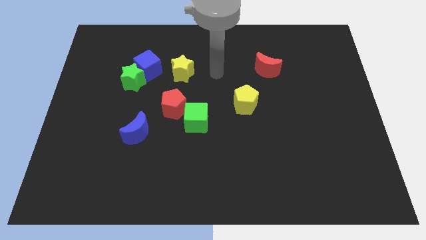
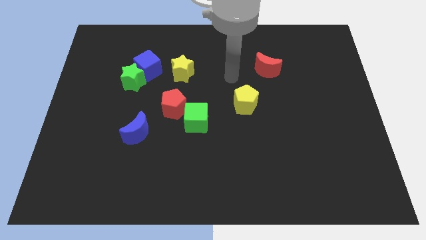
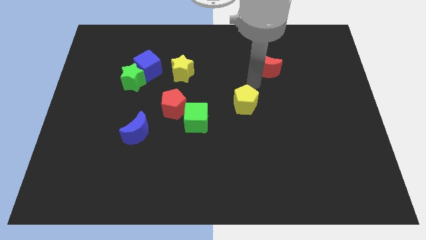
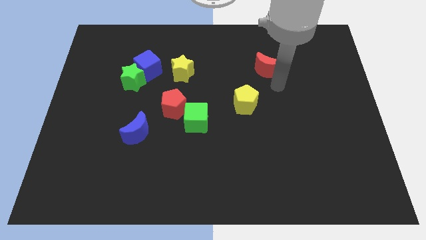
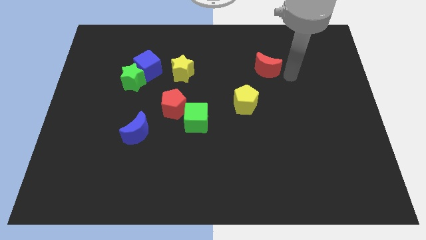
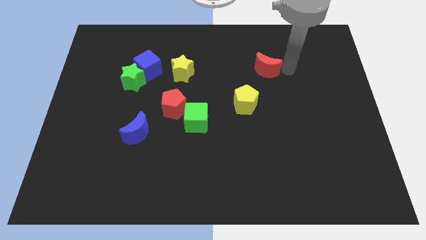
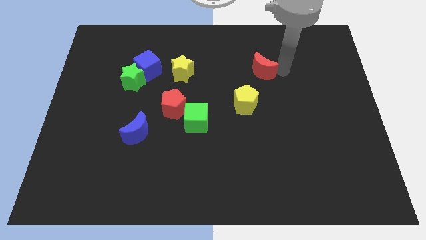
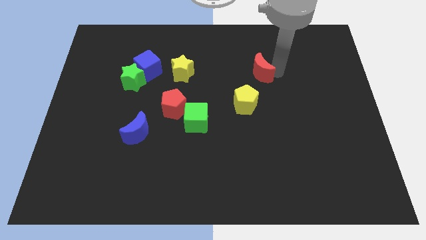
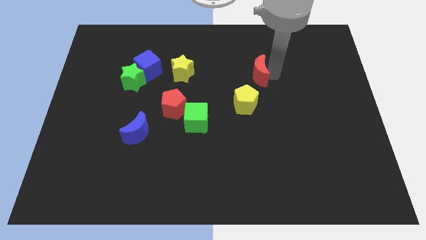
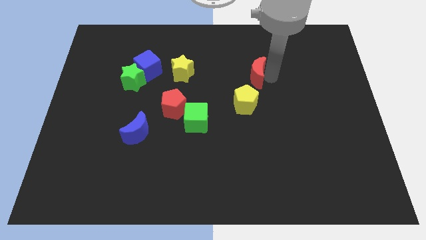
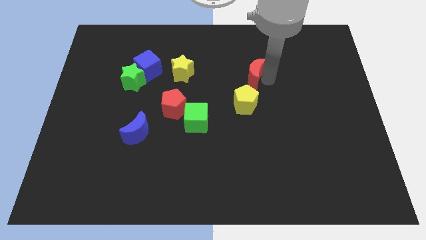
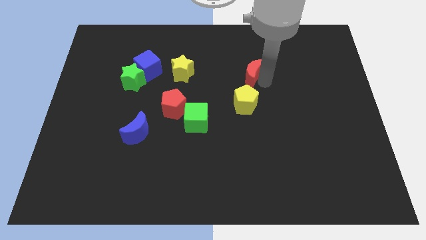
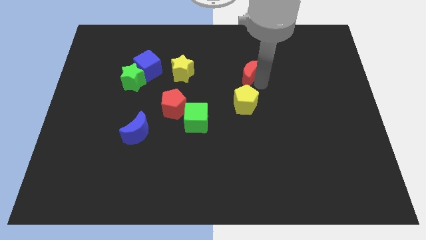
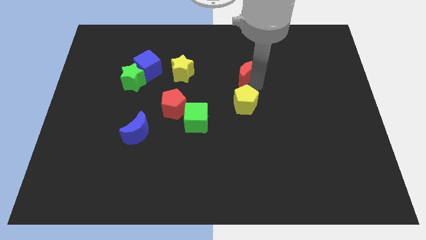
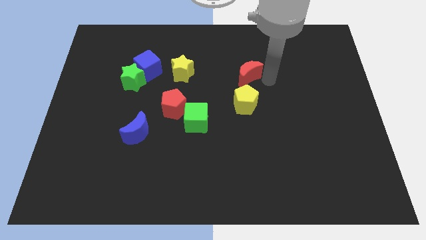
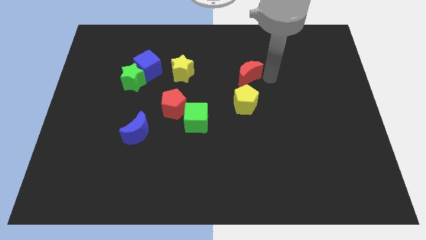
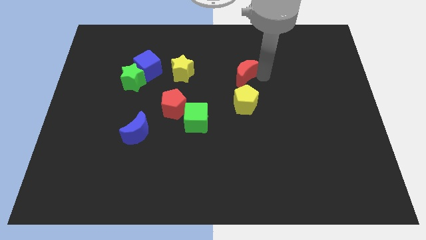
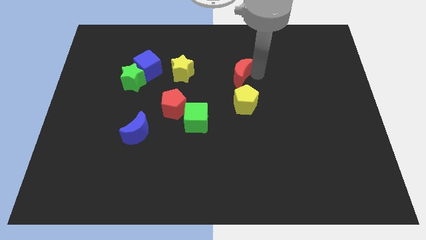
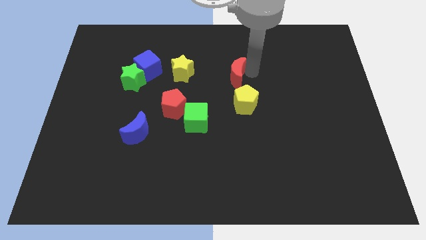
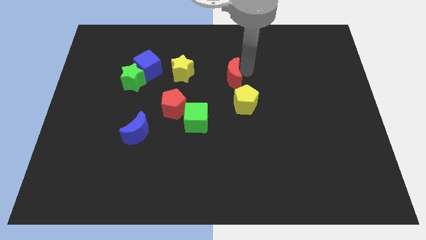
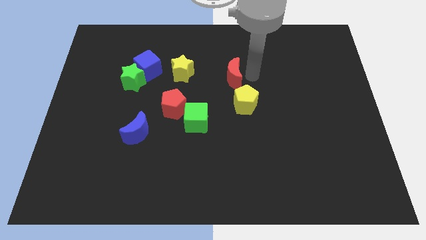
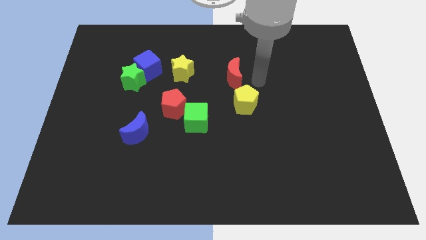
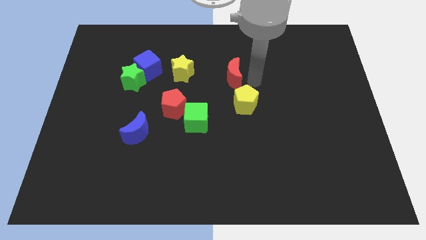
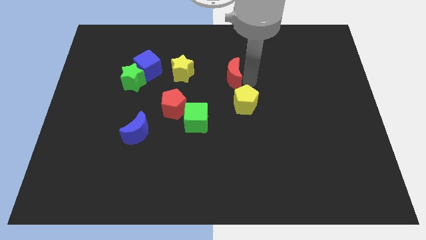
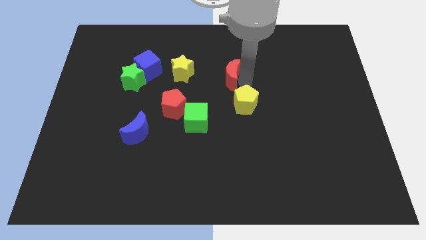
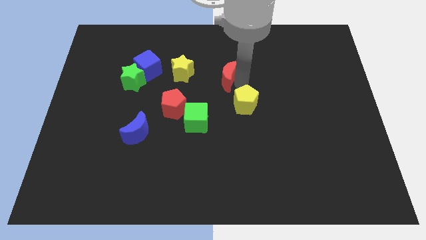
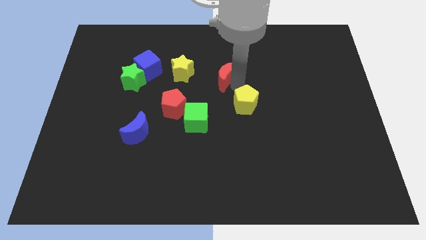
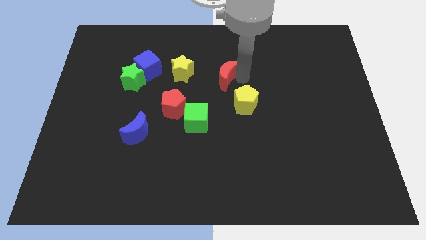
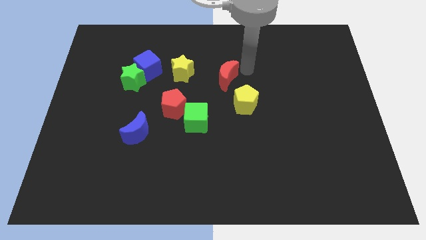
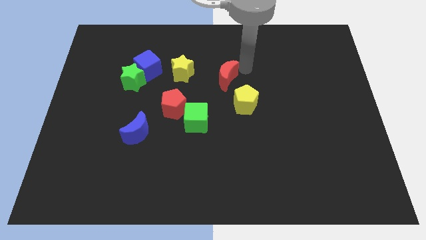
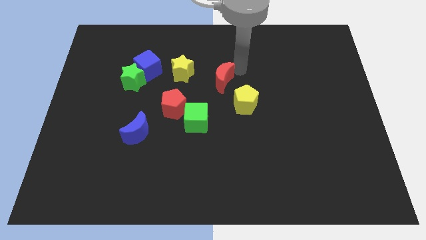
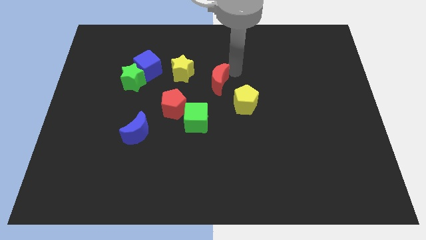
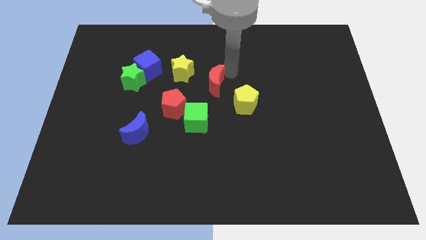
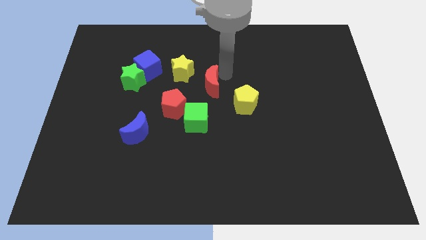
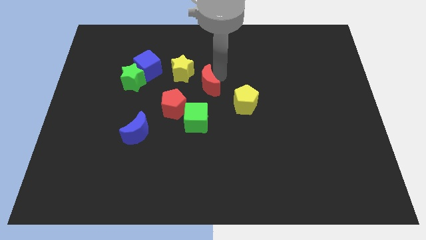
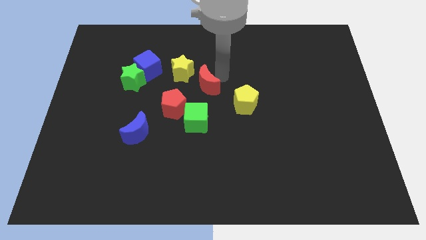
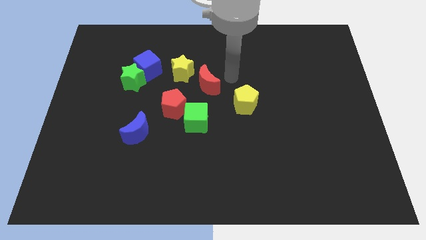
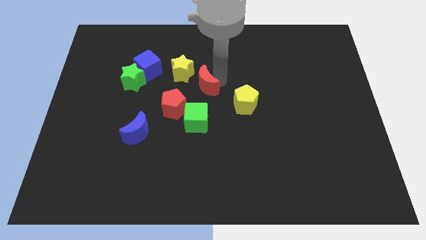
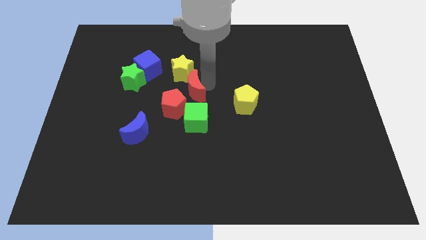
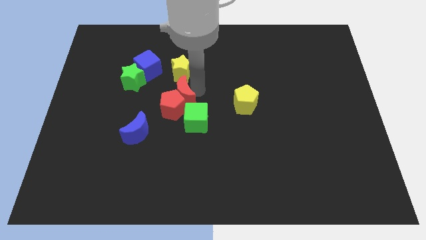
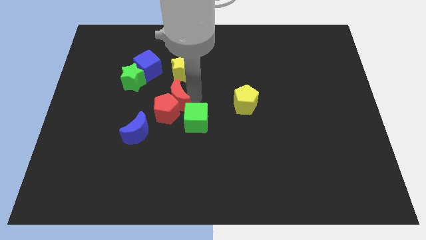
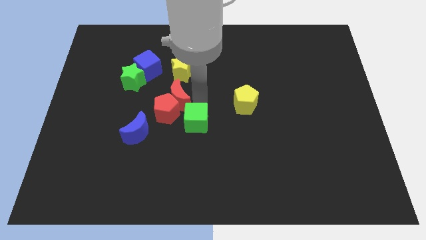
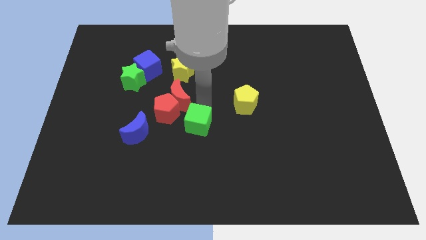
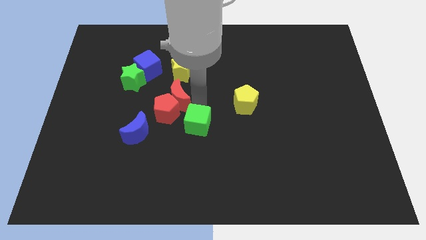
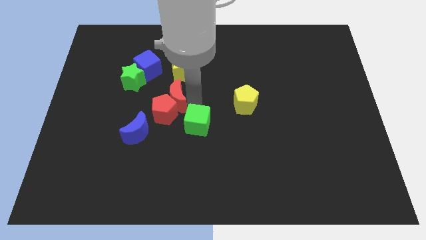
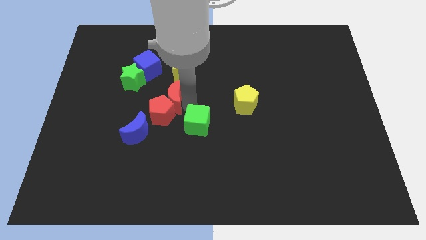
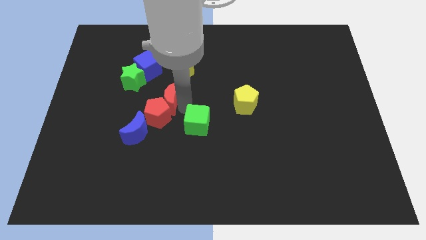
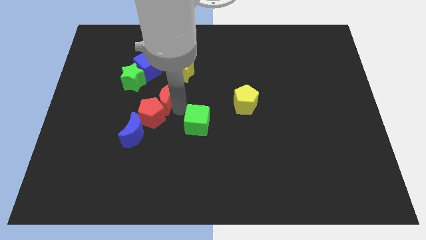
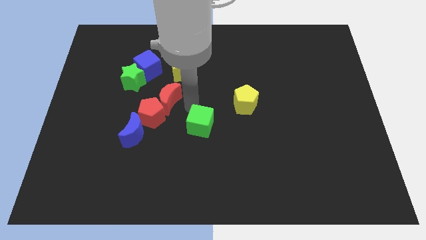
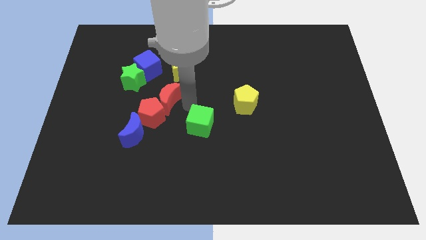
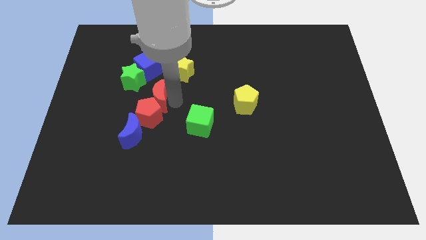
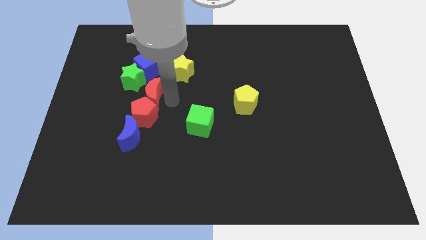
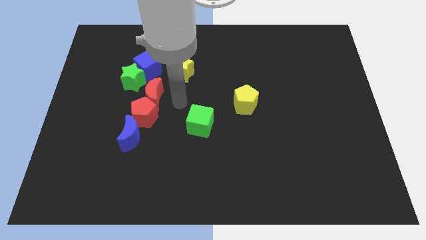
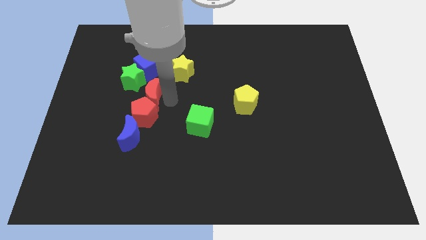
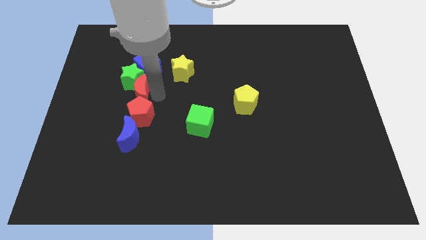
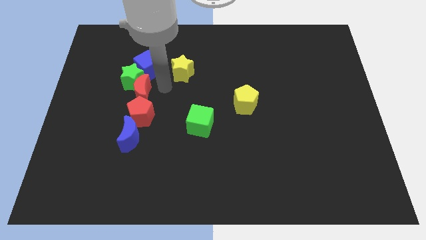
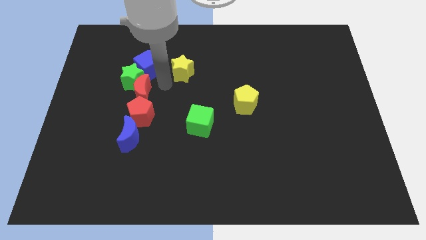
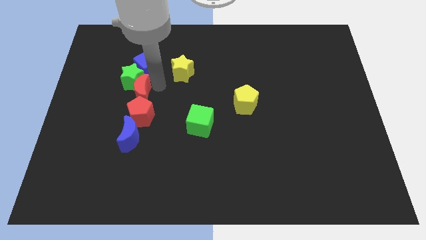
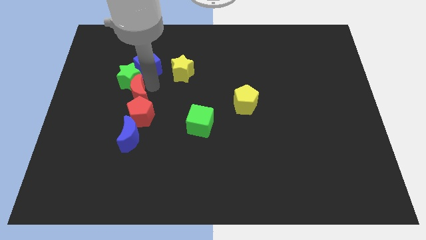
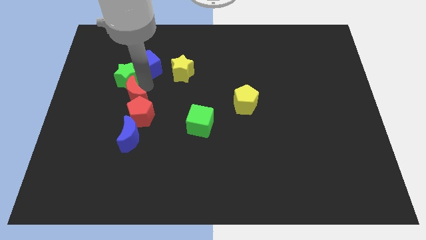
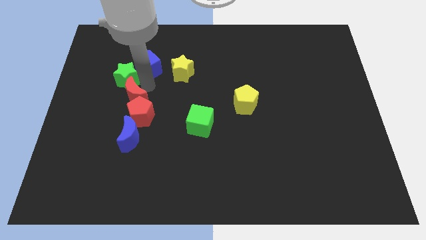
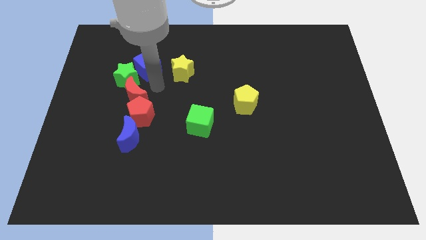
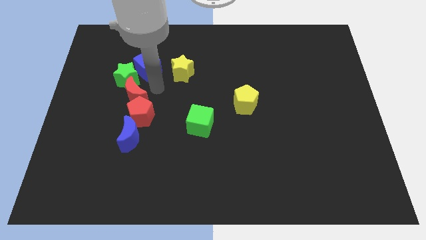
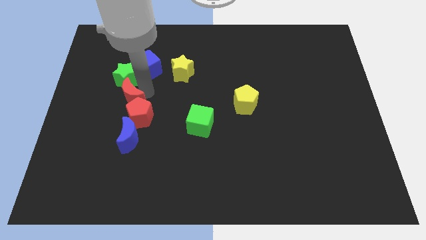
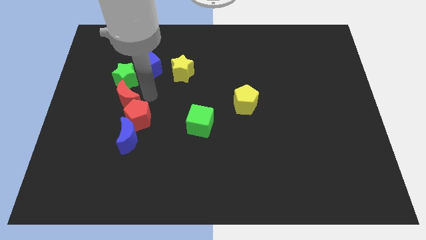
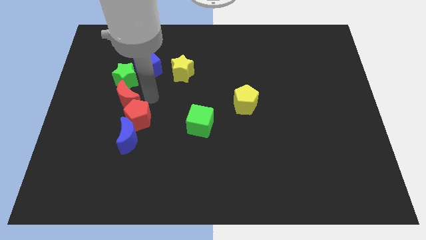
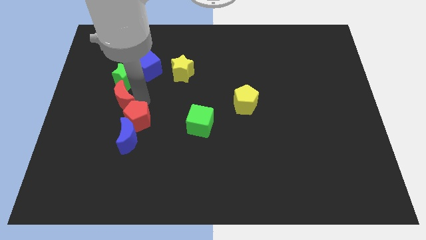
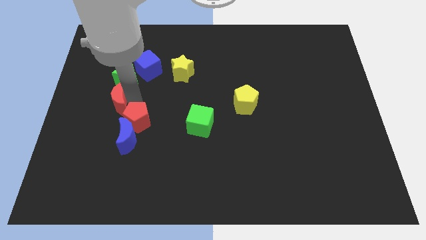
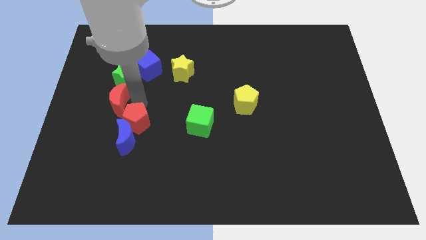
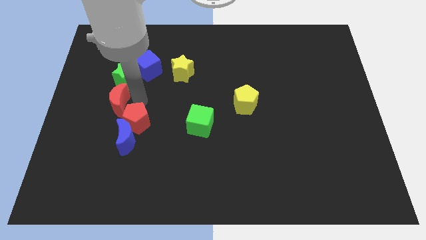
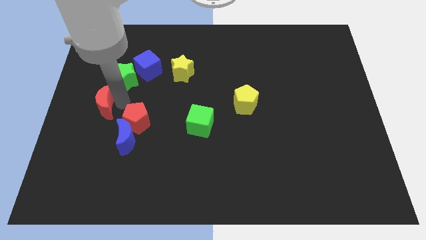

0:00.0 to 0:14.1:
slide the red moon to the left side
